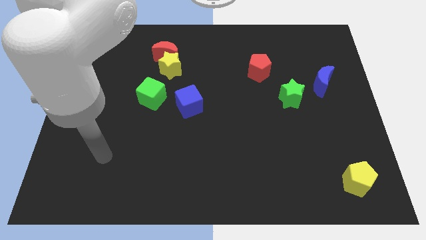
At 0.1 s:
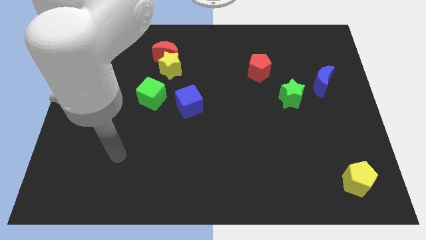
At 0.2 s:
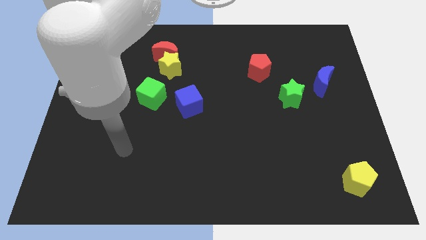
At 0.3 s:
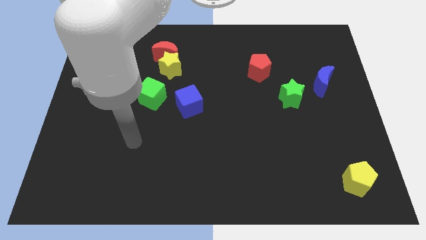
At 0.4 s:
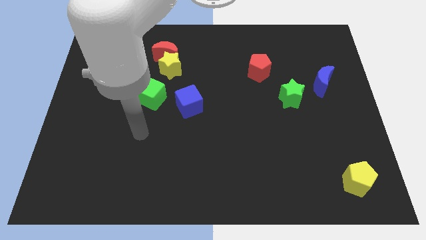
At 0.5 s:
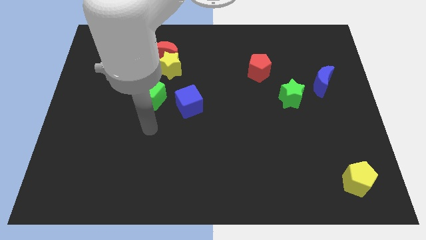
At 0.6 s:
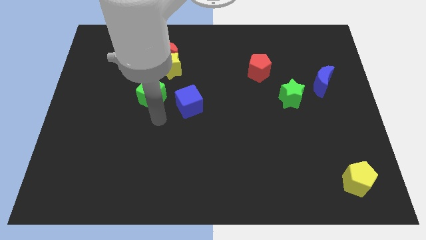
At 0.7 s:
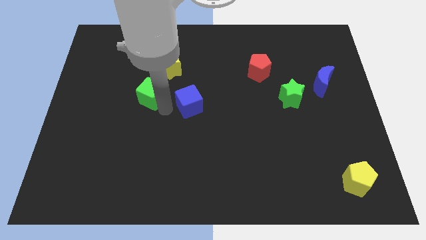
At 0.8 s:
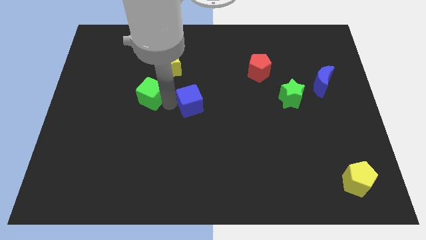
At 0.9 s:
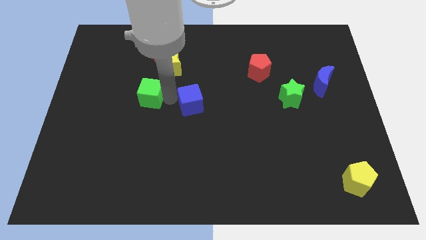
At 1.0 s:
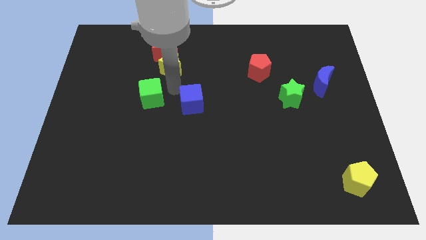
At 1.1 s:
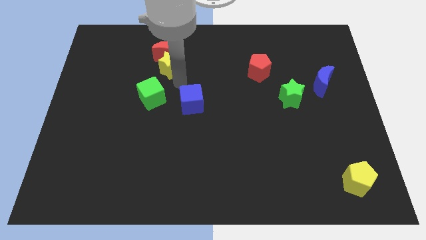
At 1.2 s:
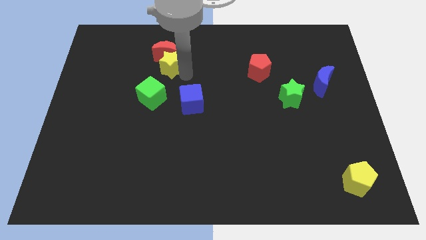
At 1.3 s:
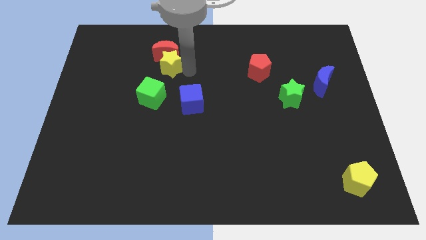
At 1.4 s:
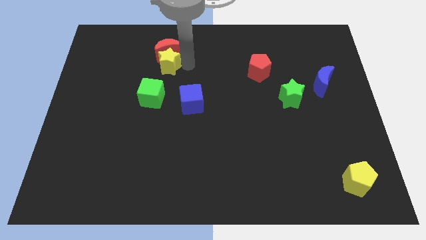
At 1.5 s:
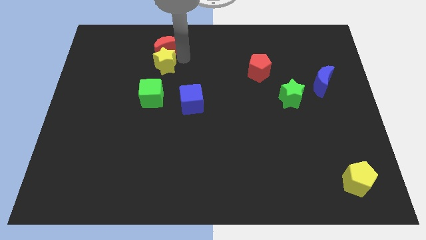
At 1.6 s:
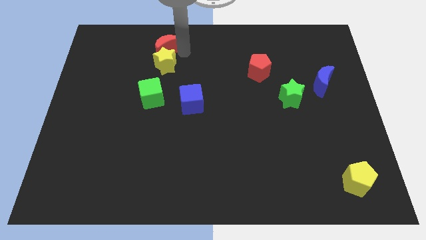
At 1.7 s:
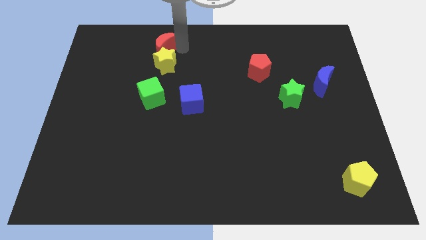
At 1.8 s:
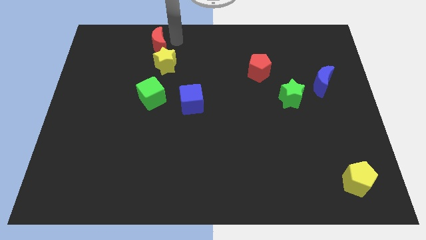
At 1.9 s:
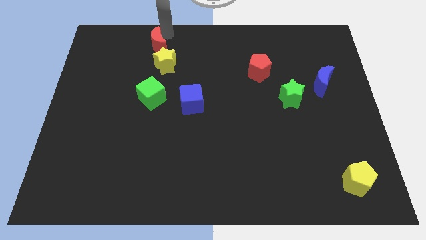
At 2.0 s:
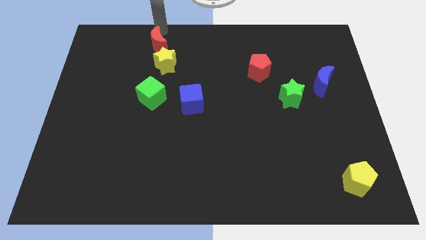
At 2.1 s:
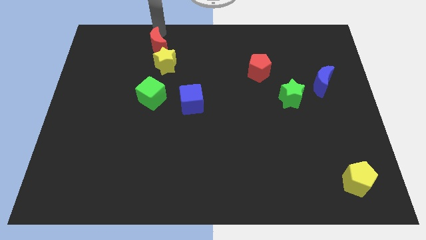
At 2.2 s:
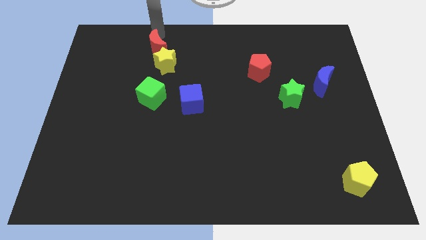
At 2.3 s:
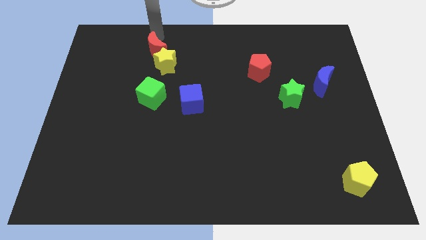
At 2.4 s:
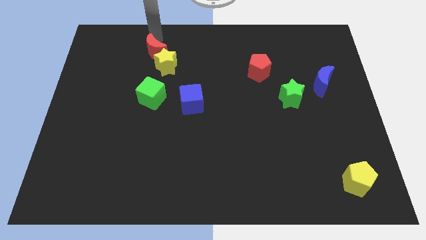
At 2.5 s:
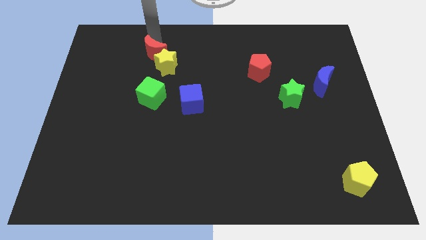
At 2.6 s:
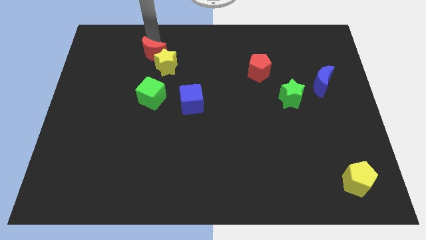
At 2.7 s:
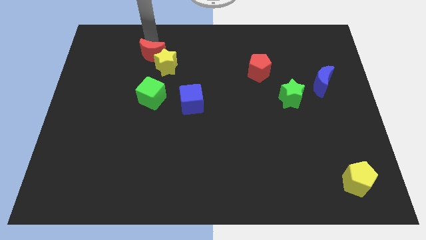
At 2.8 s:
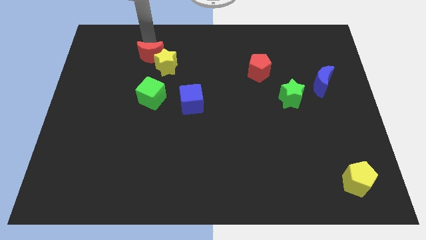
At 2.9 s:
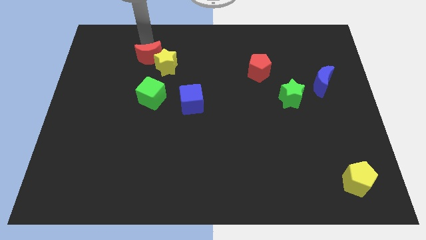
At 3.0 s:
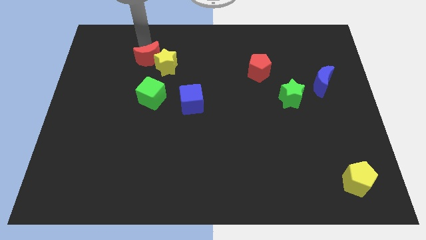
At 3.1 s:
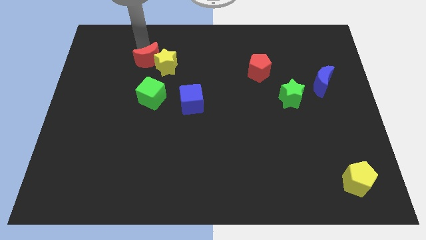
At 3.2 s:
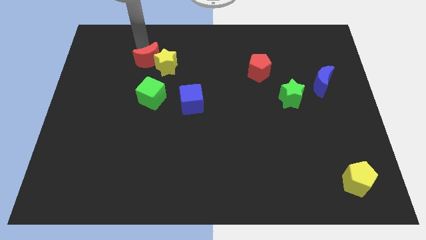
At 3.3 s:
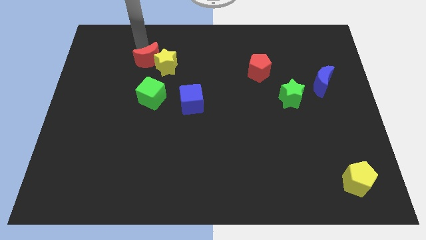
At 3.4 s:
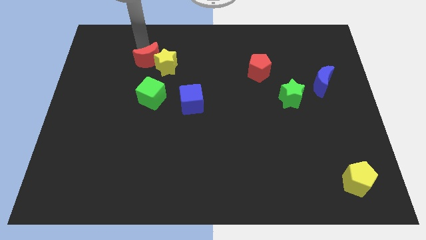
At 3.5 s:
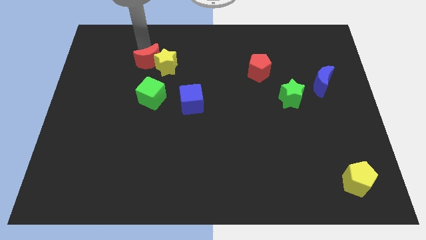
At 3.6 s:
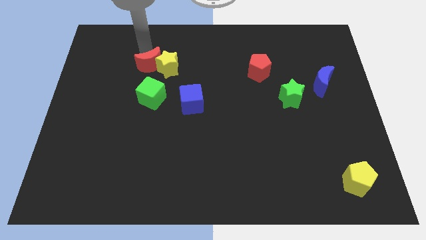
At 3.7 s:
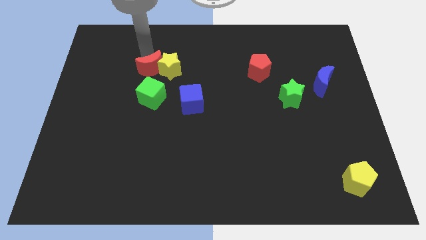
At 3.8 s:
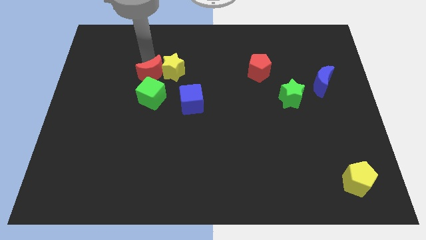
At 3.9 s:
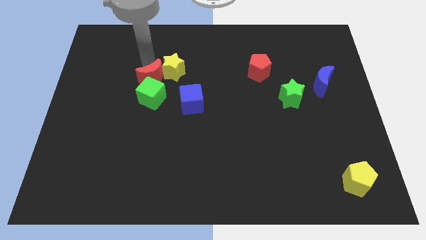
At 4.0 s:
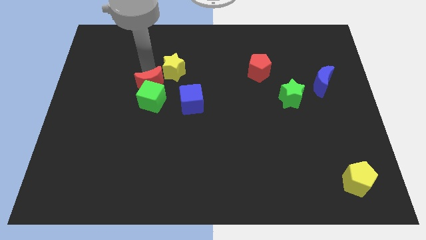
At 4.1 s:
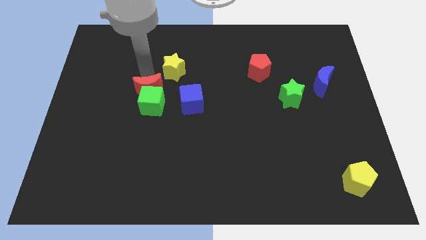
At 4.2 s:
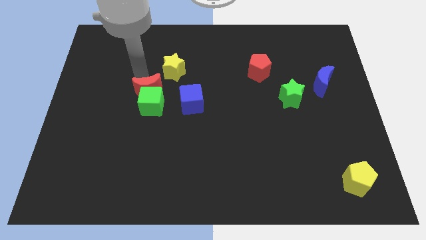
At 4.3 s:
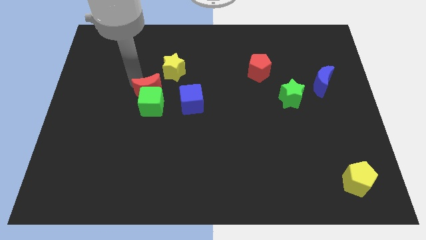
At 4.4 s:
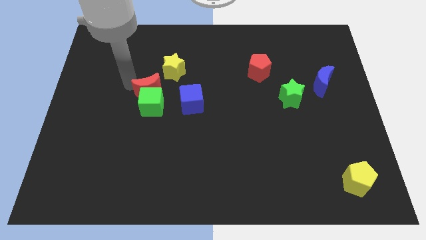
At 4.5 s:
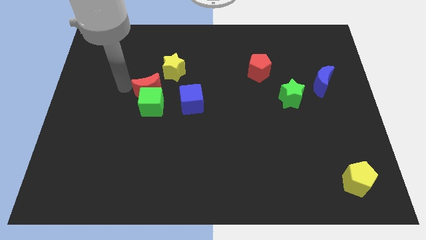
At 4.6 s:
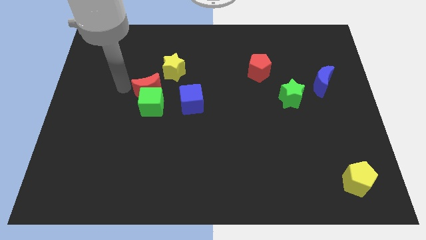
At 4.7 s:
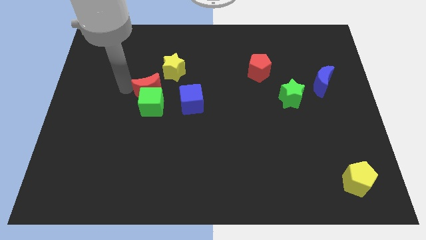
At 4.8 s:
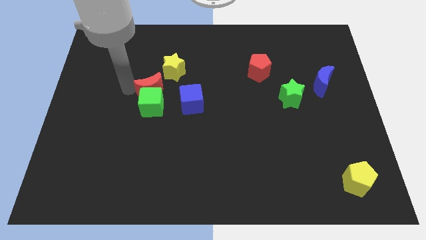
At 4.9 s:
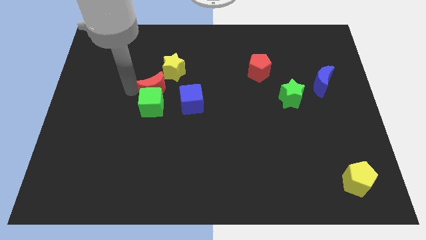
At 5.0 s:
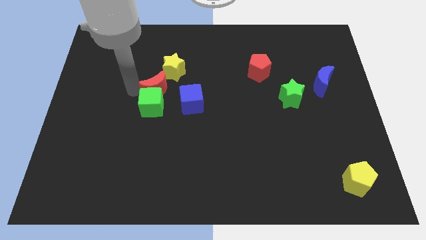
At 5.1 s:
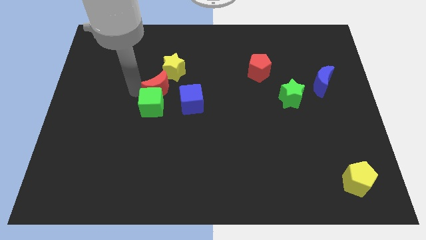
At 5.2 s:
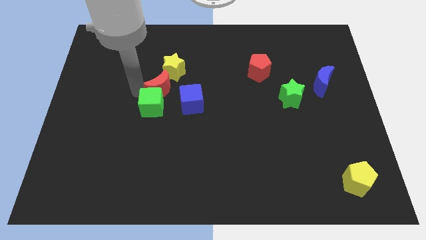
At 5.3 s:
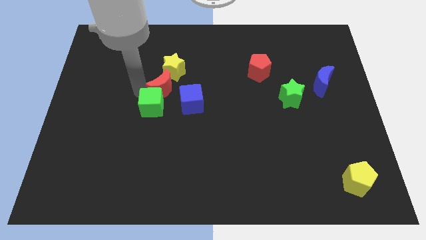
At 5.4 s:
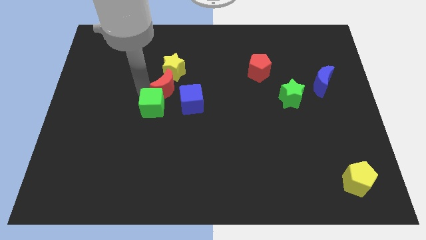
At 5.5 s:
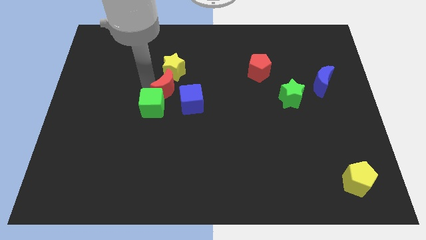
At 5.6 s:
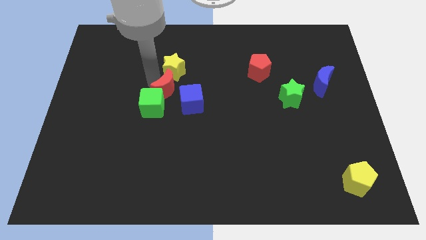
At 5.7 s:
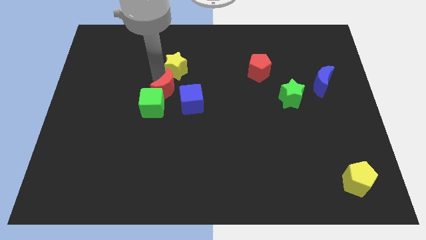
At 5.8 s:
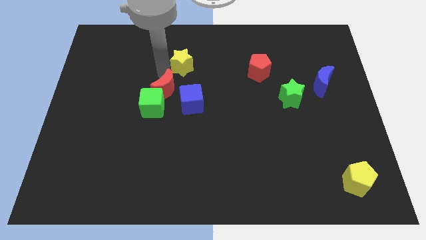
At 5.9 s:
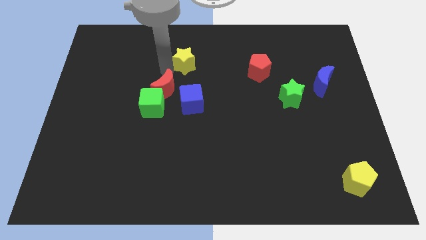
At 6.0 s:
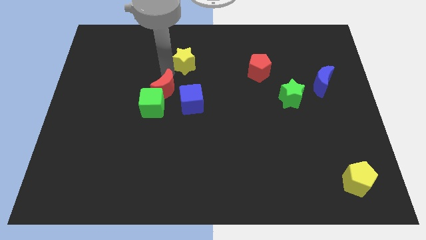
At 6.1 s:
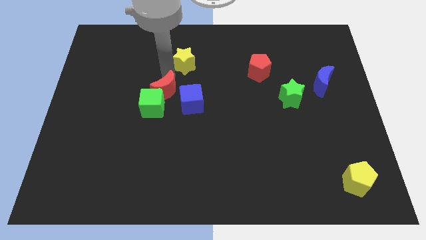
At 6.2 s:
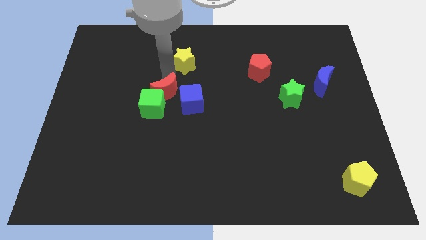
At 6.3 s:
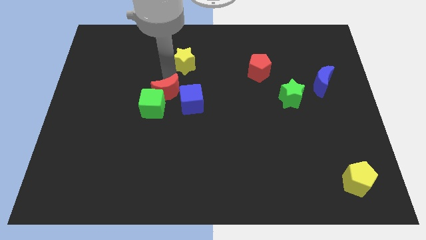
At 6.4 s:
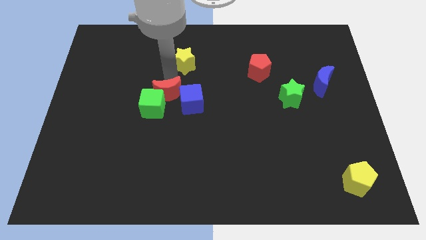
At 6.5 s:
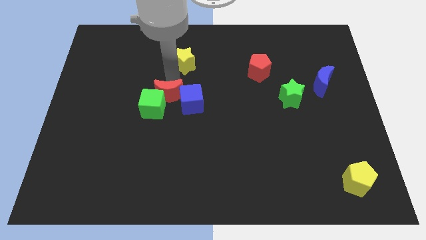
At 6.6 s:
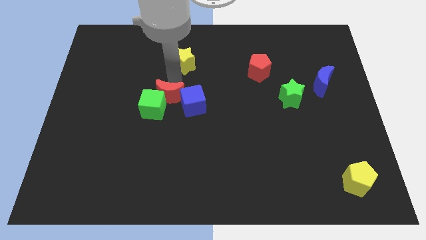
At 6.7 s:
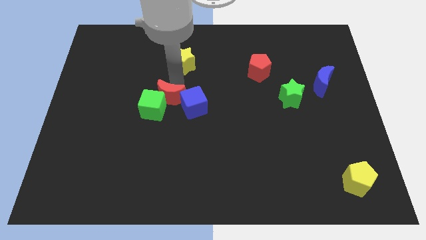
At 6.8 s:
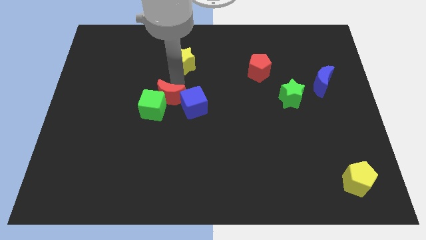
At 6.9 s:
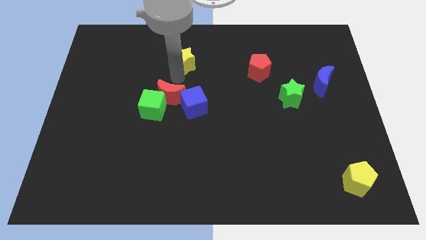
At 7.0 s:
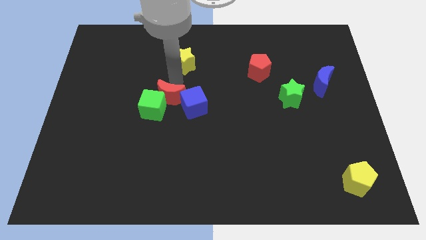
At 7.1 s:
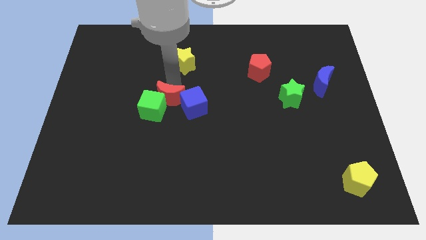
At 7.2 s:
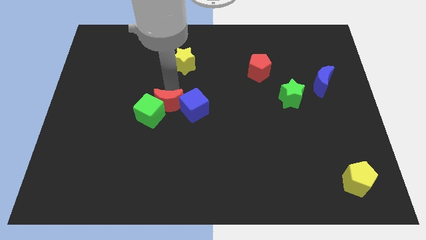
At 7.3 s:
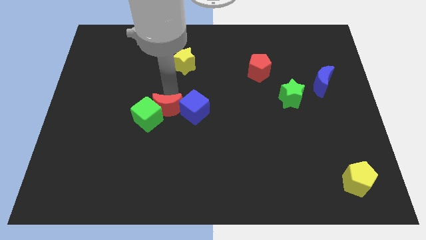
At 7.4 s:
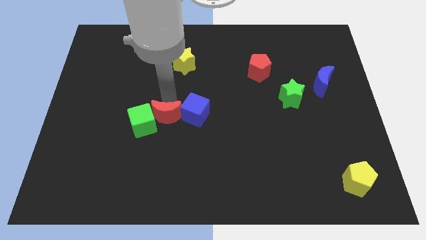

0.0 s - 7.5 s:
push the red moon downwards

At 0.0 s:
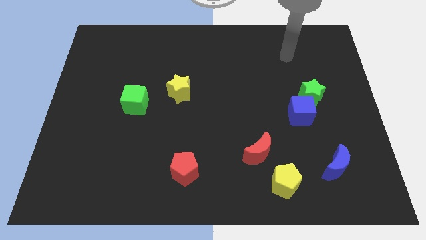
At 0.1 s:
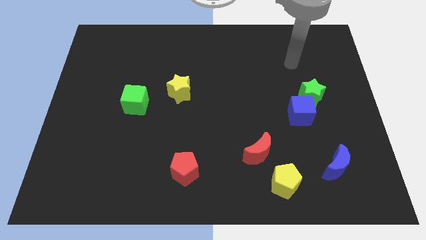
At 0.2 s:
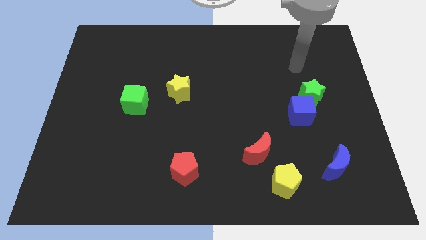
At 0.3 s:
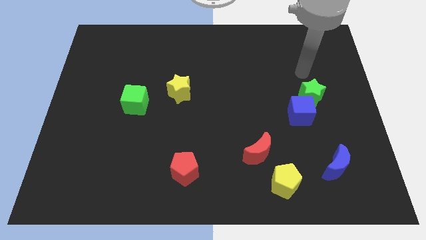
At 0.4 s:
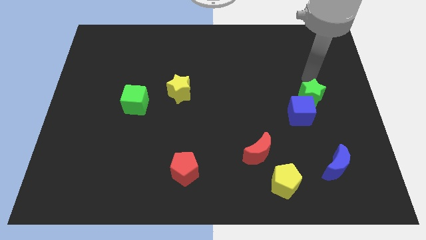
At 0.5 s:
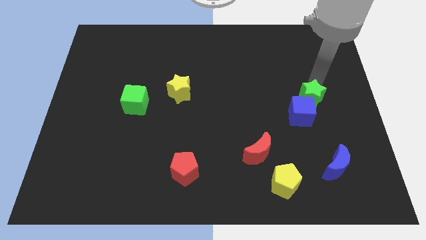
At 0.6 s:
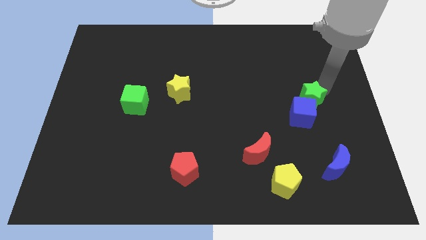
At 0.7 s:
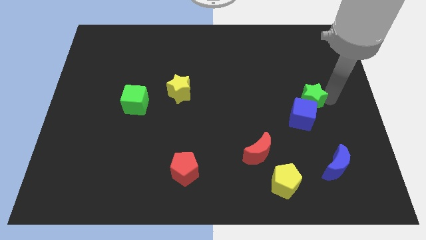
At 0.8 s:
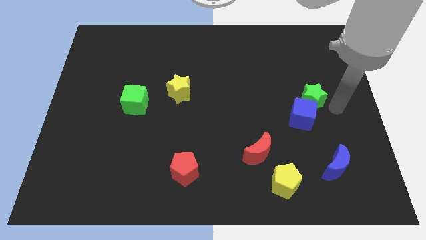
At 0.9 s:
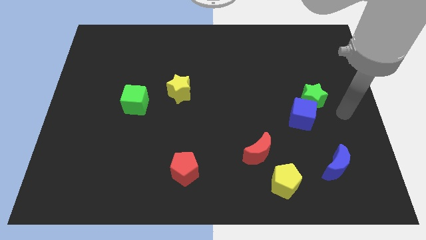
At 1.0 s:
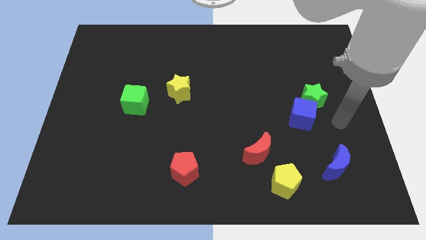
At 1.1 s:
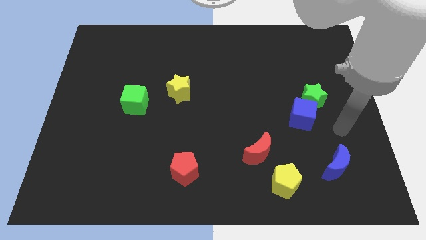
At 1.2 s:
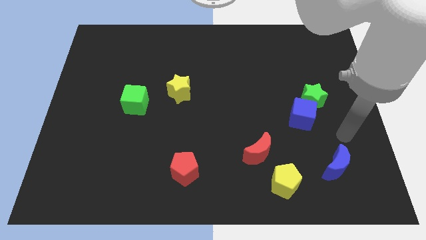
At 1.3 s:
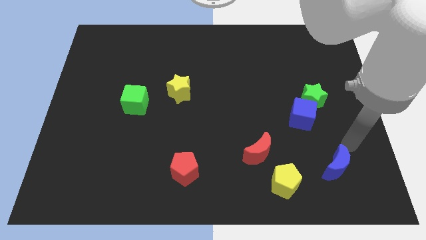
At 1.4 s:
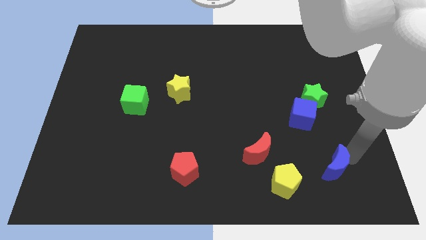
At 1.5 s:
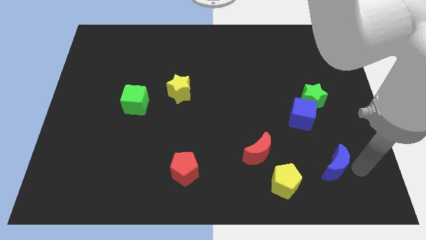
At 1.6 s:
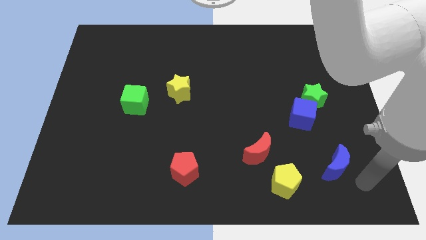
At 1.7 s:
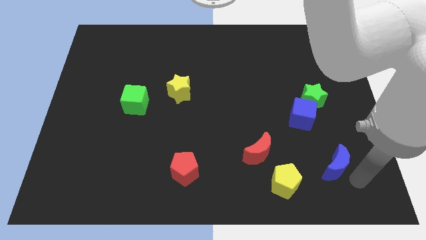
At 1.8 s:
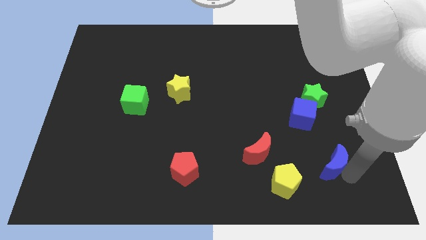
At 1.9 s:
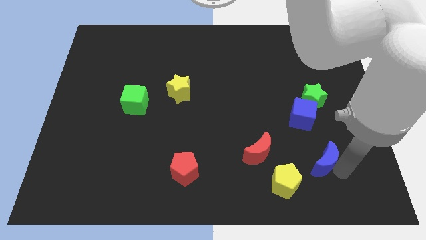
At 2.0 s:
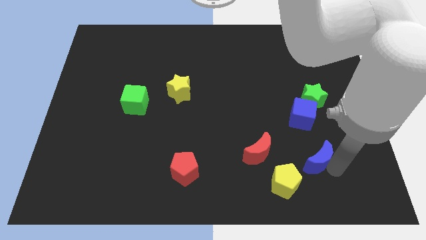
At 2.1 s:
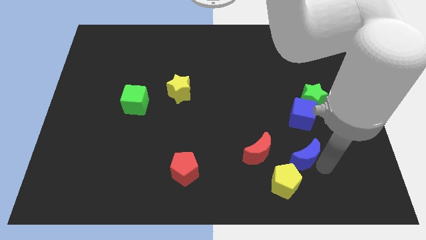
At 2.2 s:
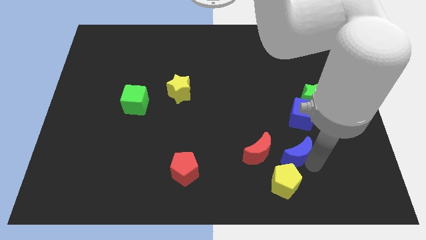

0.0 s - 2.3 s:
slightly slide the blue moon upwards and to the left
